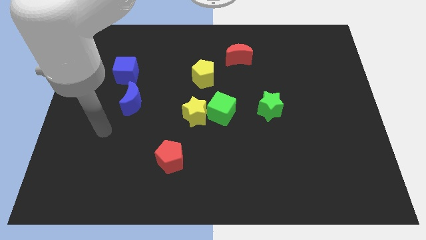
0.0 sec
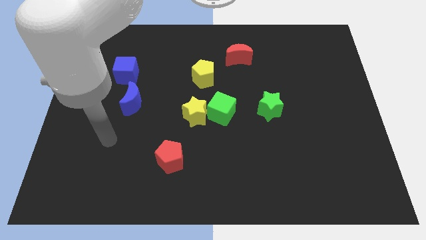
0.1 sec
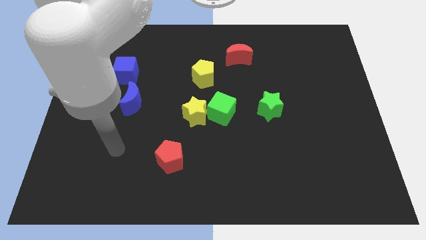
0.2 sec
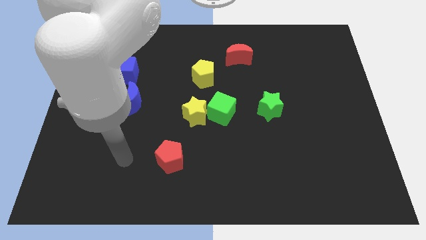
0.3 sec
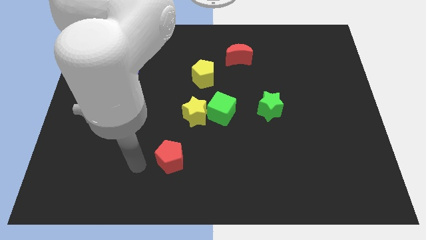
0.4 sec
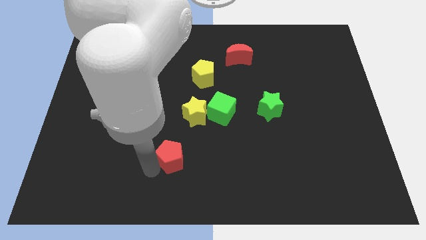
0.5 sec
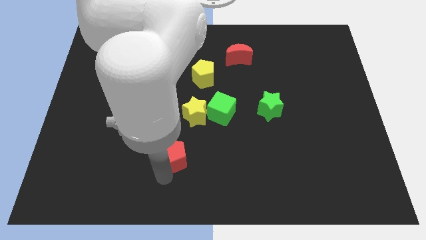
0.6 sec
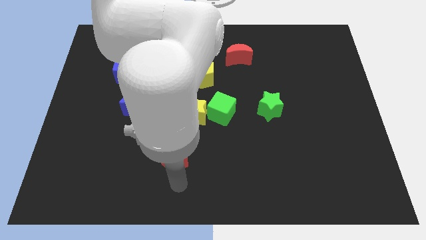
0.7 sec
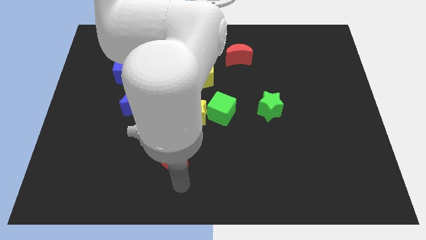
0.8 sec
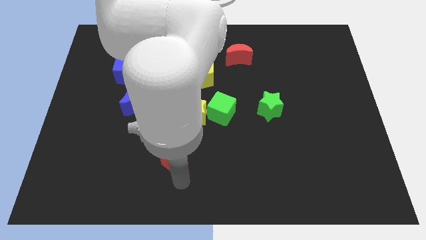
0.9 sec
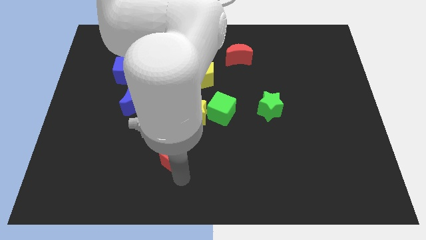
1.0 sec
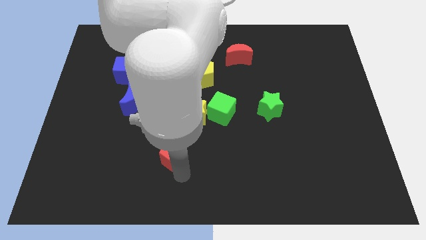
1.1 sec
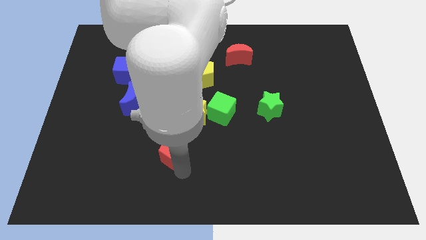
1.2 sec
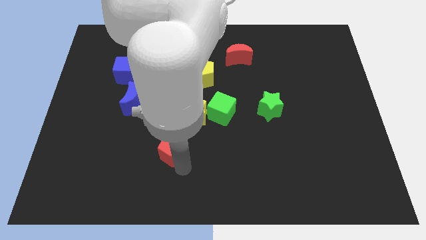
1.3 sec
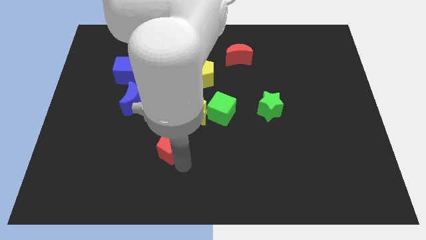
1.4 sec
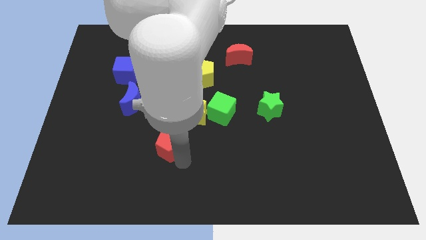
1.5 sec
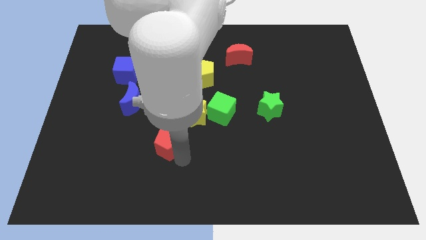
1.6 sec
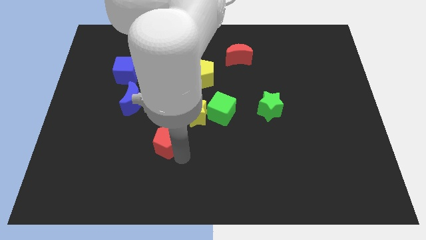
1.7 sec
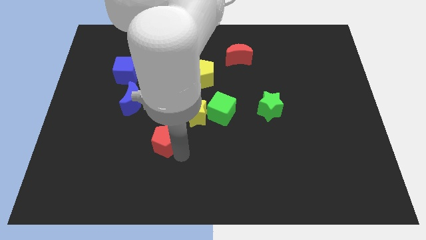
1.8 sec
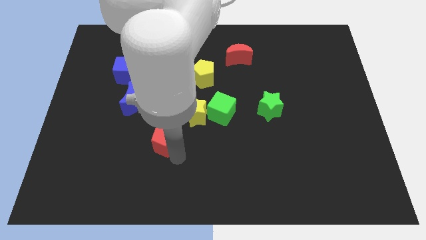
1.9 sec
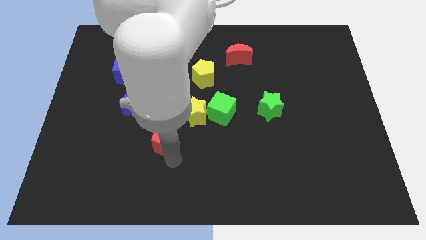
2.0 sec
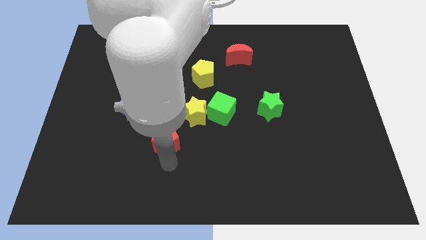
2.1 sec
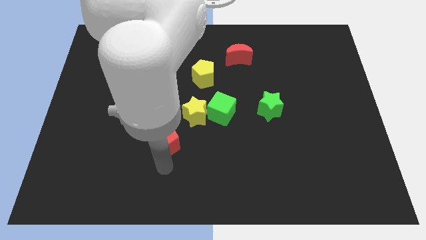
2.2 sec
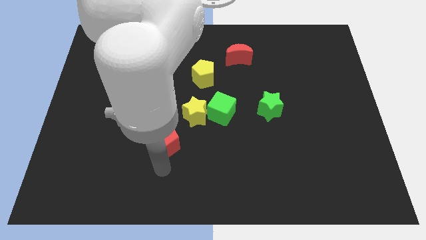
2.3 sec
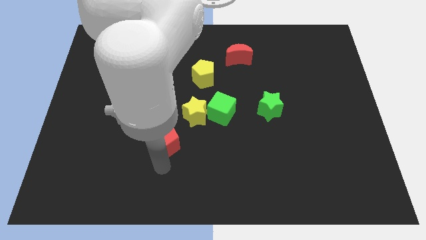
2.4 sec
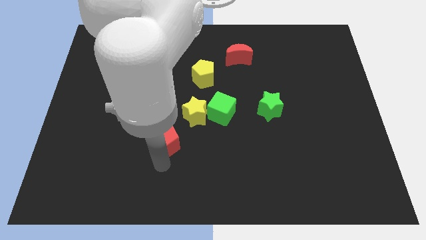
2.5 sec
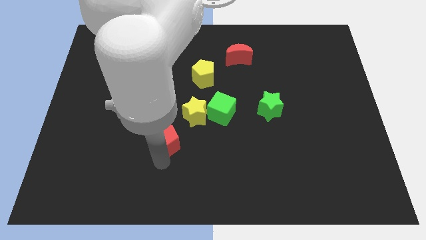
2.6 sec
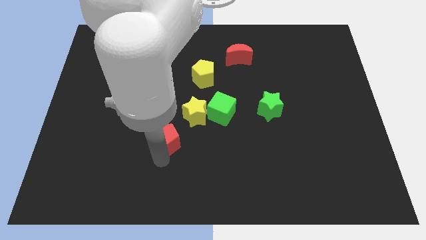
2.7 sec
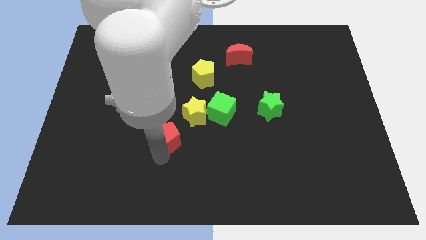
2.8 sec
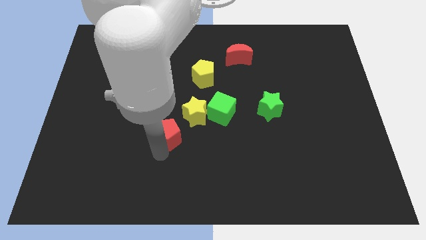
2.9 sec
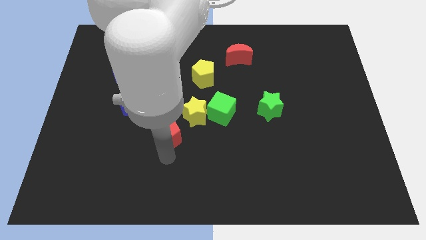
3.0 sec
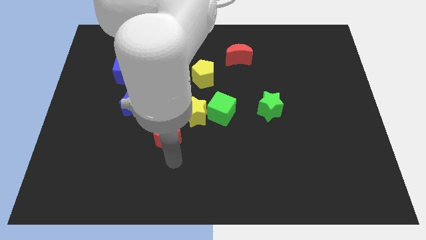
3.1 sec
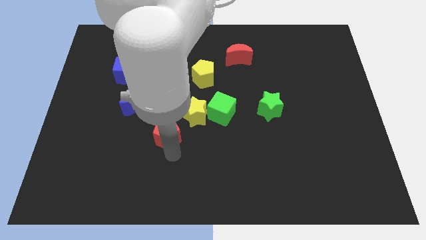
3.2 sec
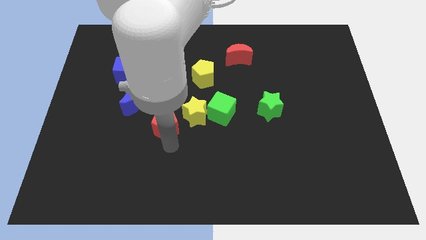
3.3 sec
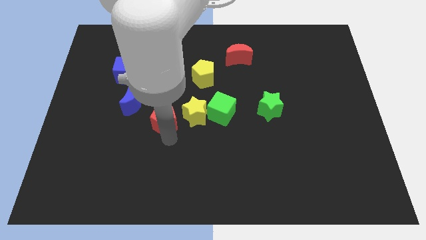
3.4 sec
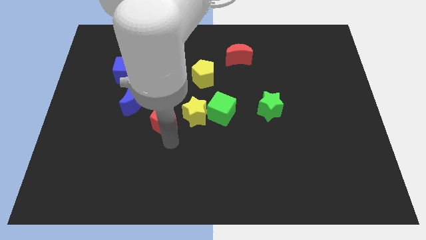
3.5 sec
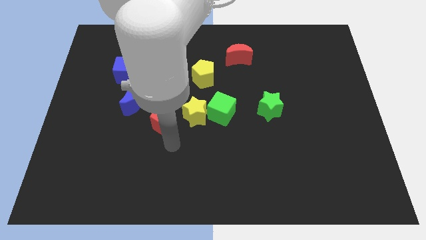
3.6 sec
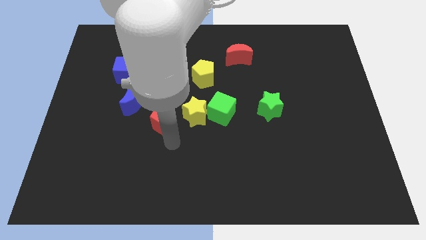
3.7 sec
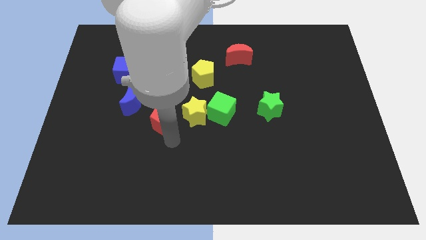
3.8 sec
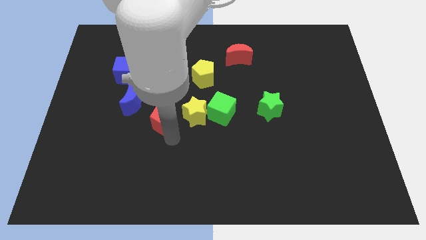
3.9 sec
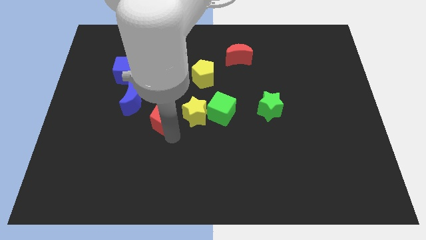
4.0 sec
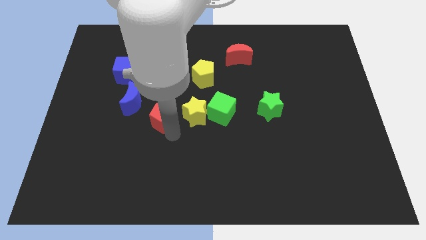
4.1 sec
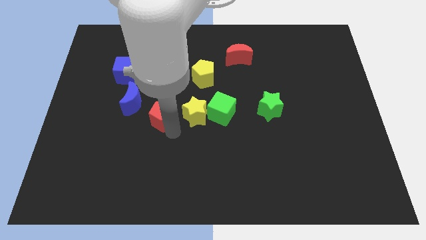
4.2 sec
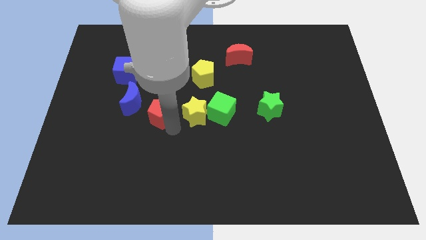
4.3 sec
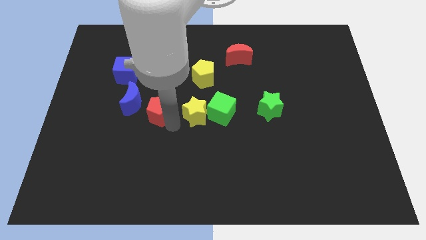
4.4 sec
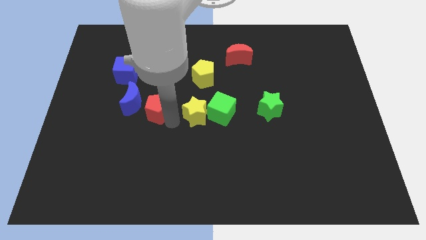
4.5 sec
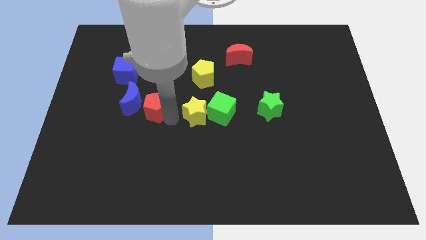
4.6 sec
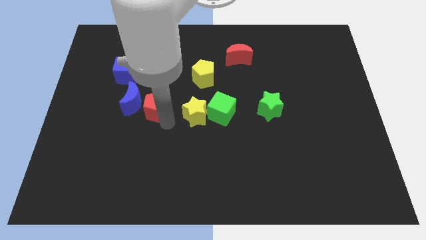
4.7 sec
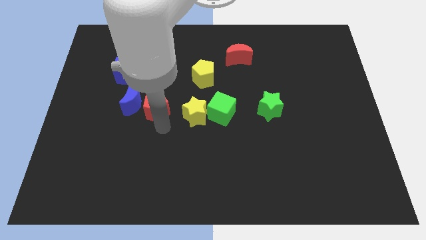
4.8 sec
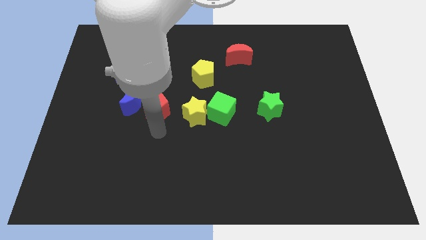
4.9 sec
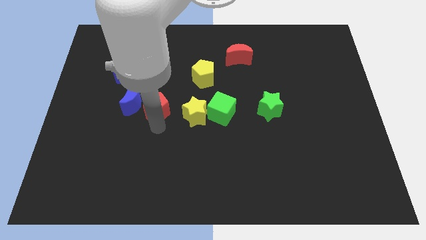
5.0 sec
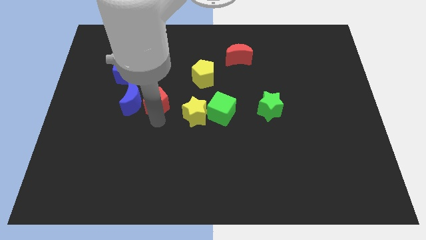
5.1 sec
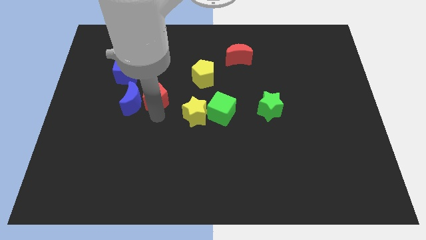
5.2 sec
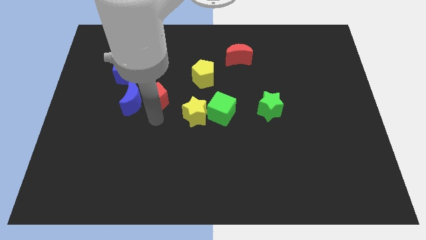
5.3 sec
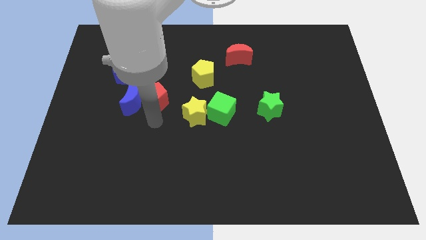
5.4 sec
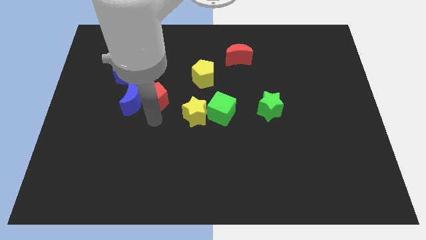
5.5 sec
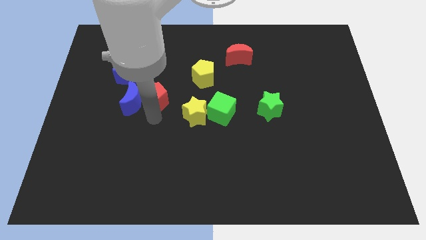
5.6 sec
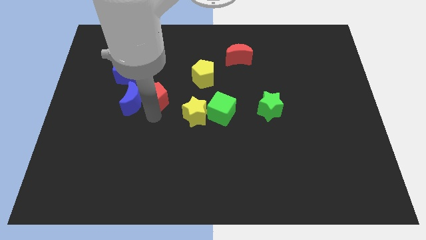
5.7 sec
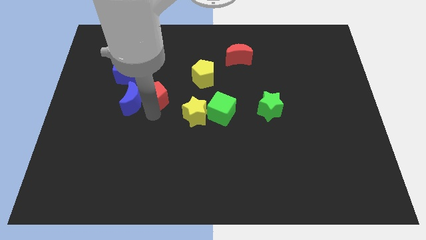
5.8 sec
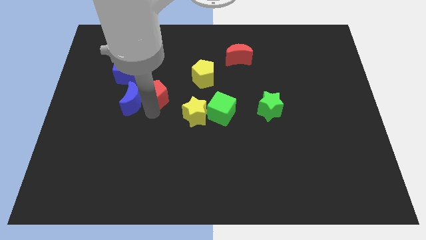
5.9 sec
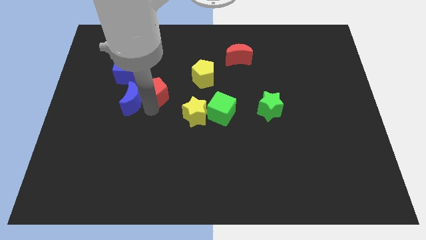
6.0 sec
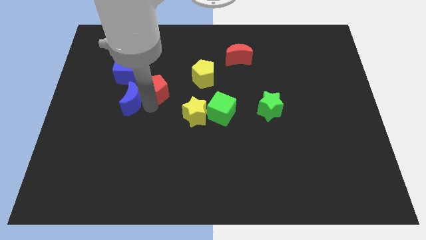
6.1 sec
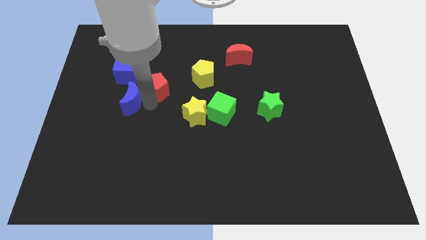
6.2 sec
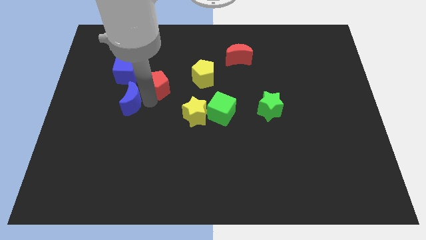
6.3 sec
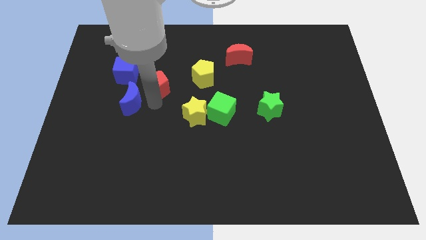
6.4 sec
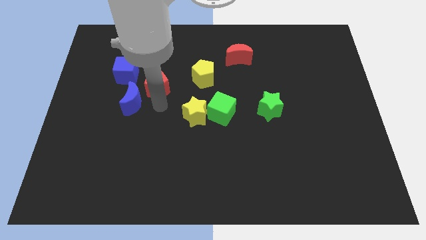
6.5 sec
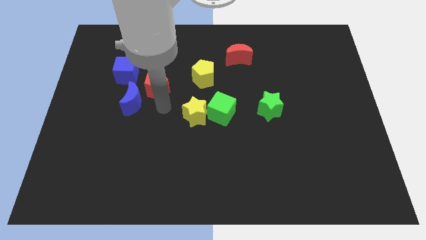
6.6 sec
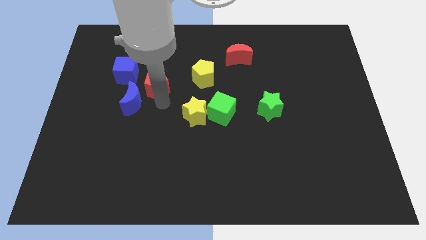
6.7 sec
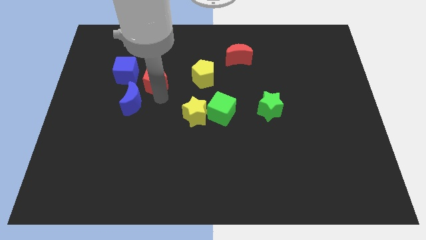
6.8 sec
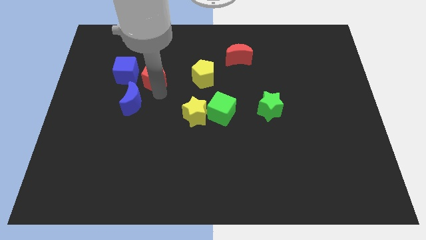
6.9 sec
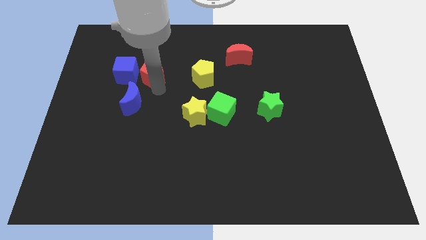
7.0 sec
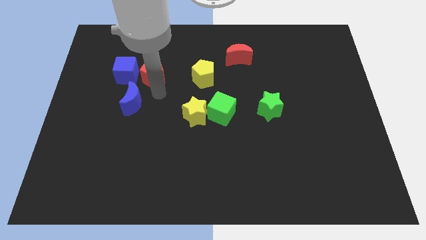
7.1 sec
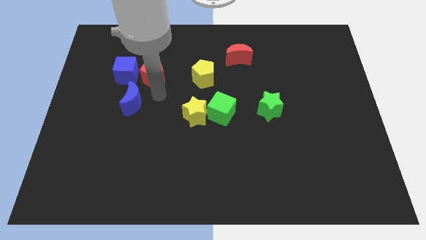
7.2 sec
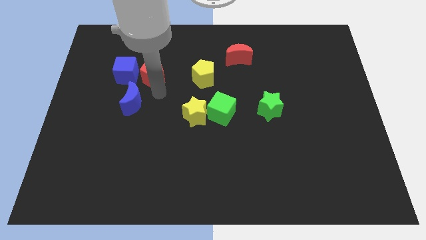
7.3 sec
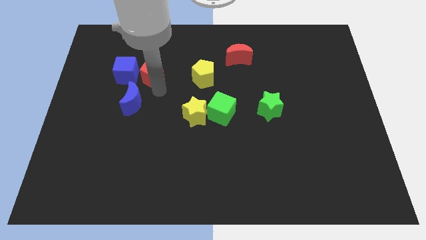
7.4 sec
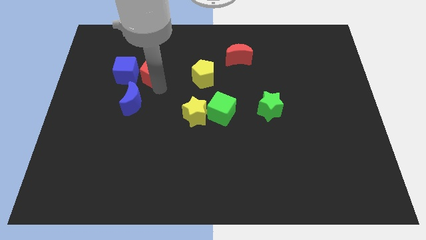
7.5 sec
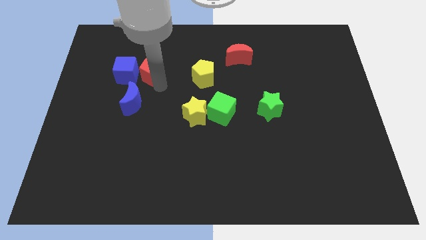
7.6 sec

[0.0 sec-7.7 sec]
put the red pentagon diagonally up and to the right of the blue cube

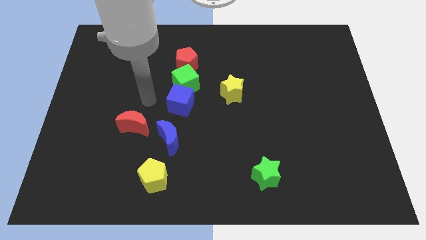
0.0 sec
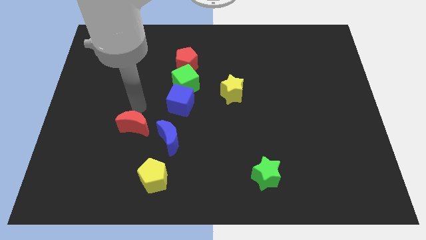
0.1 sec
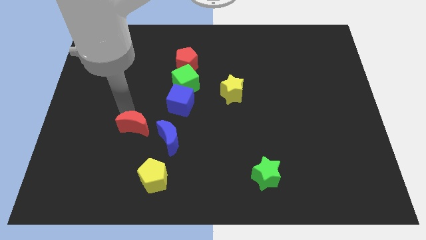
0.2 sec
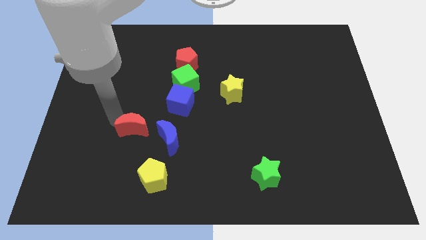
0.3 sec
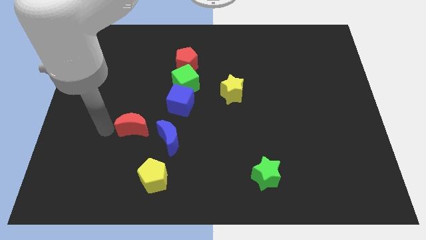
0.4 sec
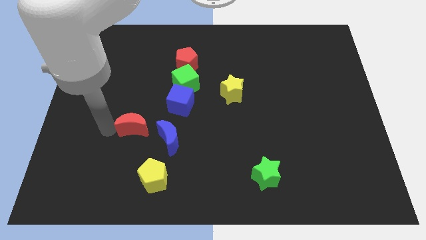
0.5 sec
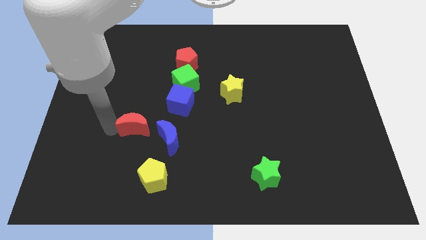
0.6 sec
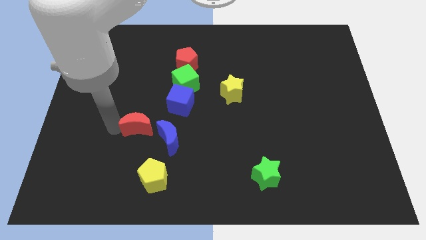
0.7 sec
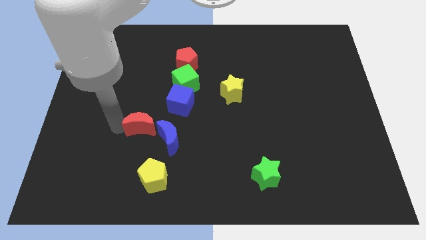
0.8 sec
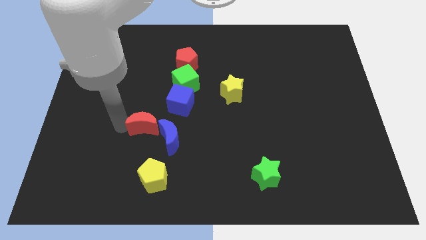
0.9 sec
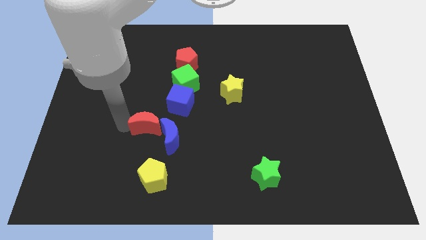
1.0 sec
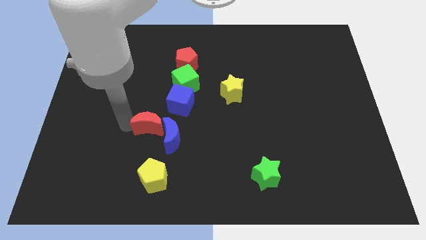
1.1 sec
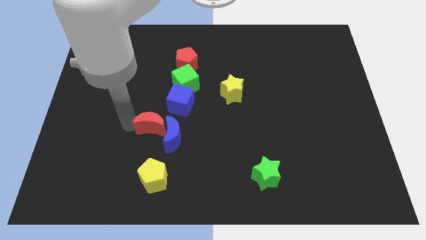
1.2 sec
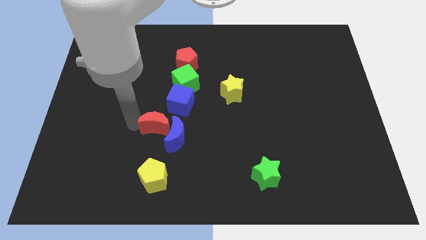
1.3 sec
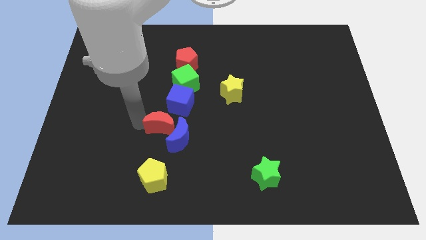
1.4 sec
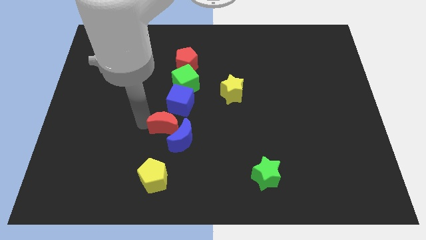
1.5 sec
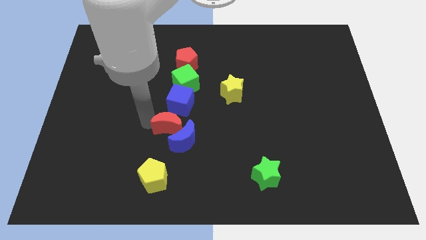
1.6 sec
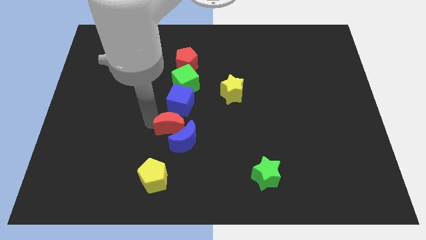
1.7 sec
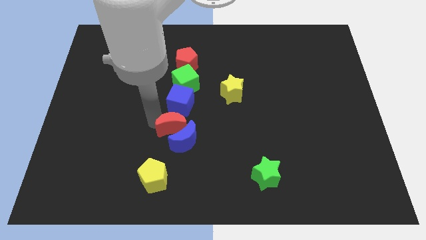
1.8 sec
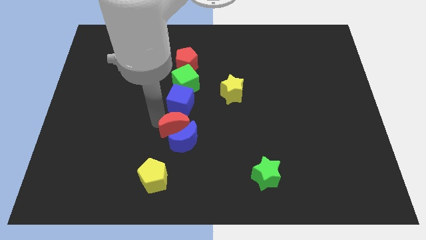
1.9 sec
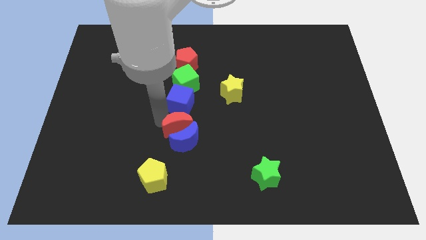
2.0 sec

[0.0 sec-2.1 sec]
push the red moon to the bottom right side of the blue cube
